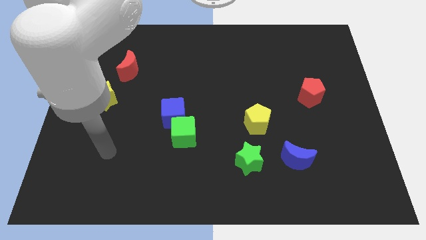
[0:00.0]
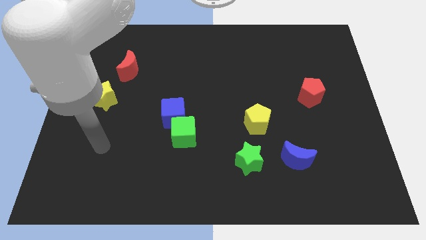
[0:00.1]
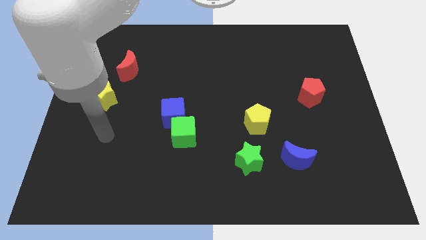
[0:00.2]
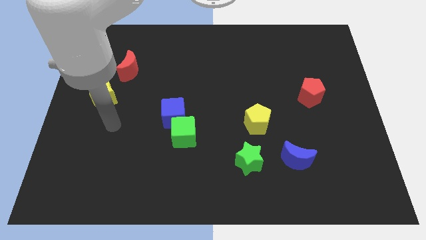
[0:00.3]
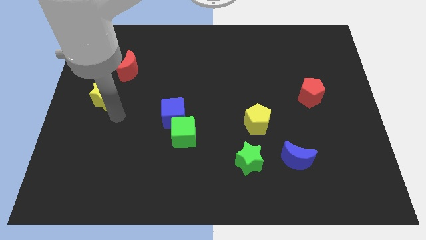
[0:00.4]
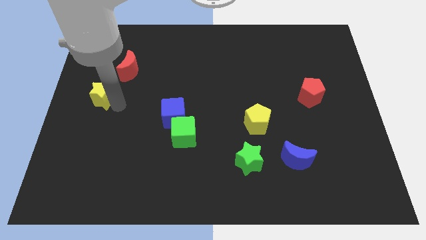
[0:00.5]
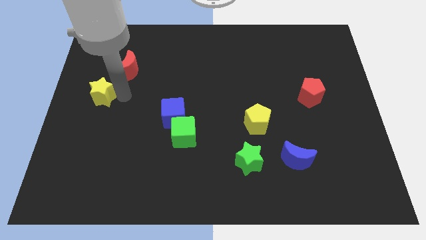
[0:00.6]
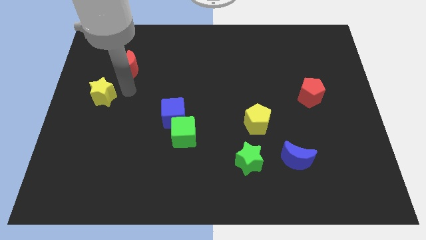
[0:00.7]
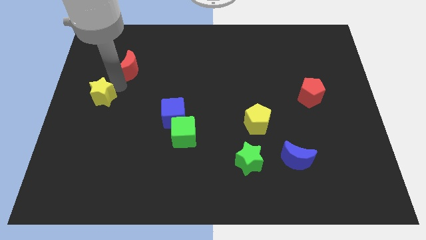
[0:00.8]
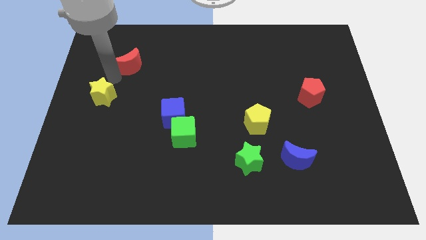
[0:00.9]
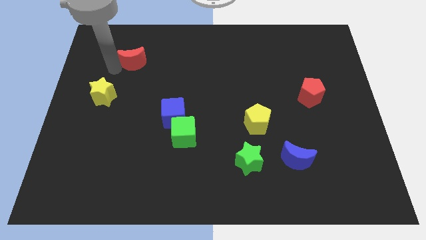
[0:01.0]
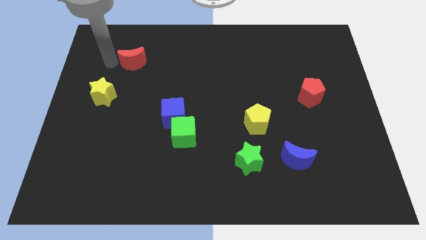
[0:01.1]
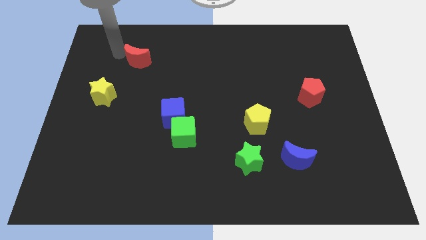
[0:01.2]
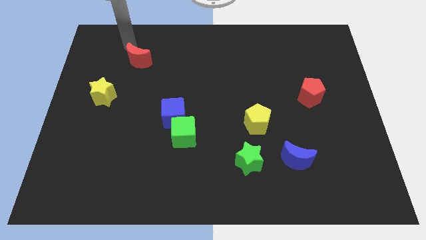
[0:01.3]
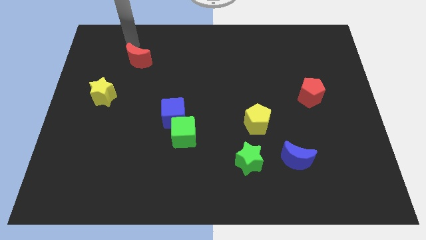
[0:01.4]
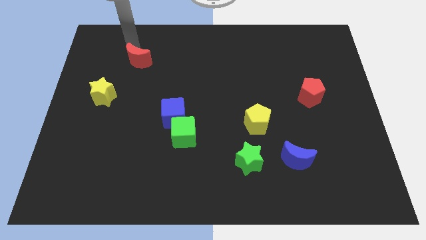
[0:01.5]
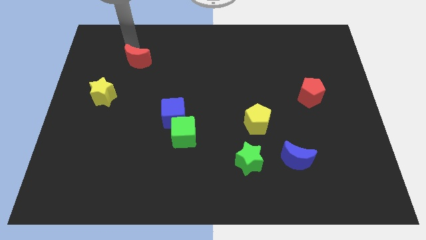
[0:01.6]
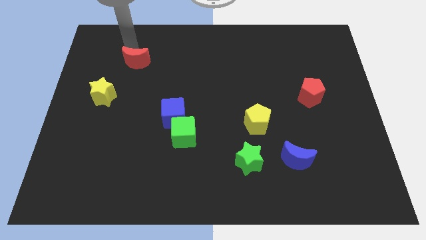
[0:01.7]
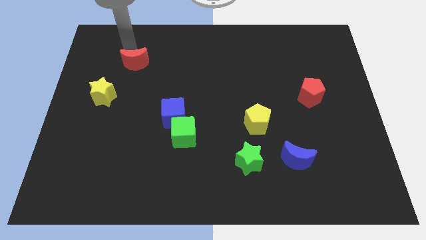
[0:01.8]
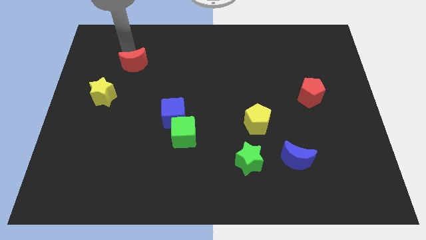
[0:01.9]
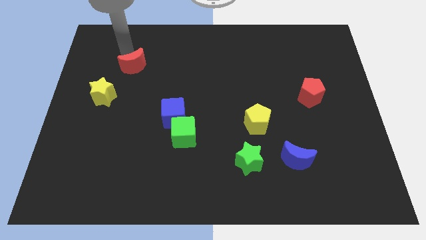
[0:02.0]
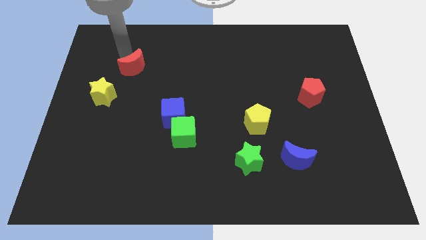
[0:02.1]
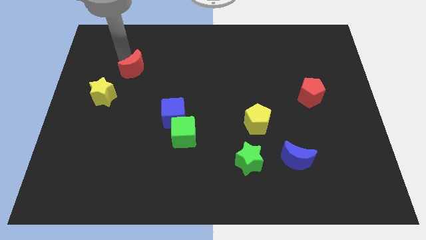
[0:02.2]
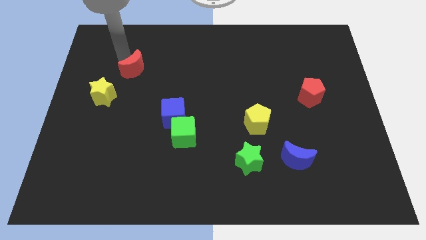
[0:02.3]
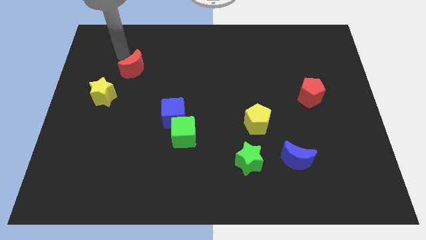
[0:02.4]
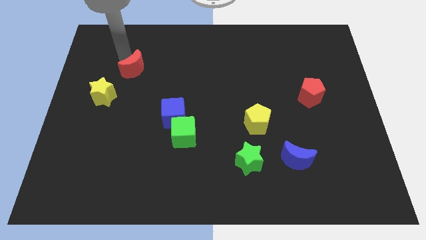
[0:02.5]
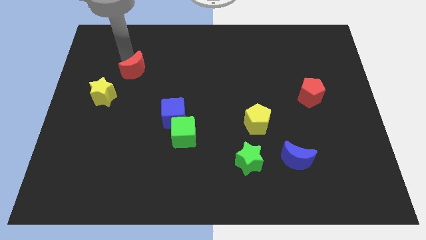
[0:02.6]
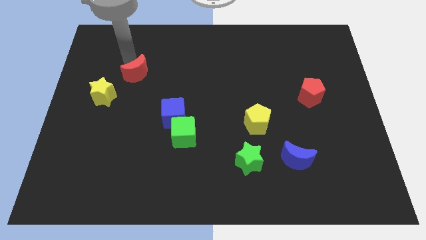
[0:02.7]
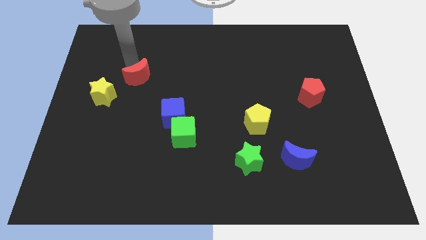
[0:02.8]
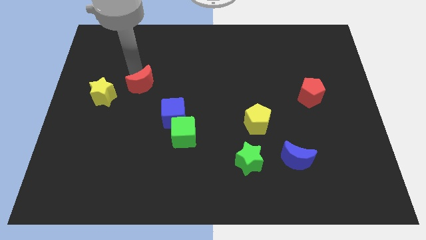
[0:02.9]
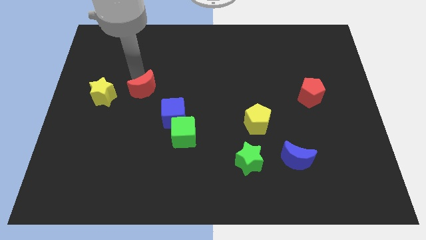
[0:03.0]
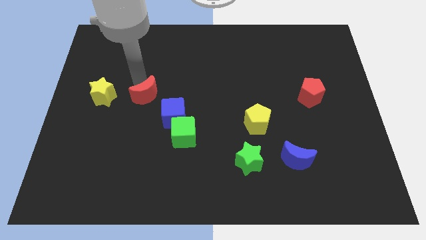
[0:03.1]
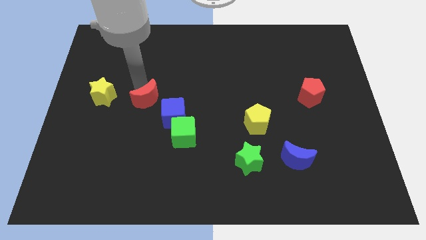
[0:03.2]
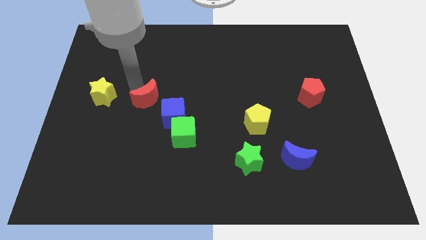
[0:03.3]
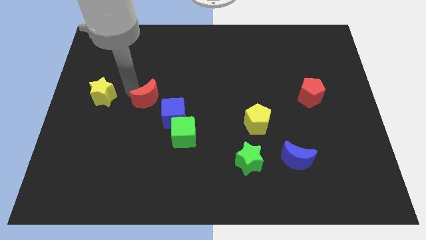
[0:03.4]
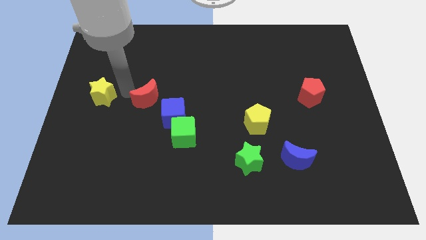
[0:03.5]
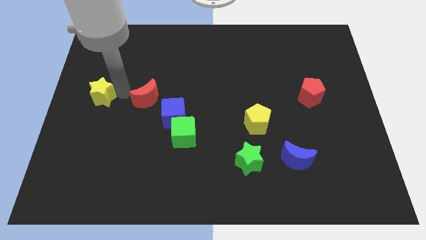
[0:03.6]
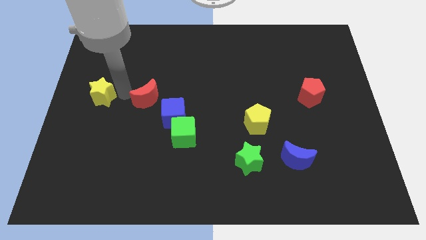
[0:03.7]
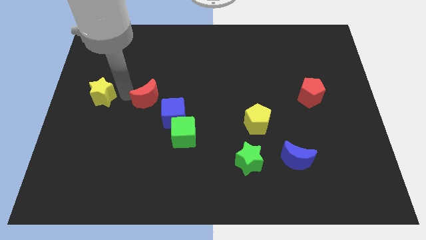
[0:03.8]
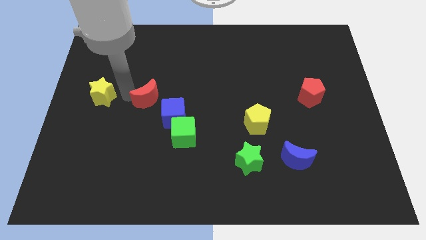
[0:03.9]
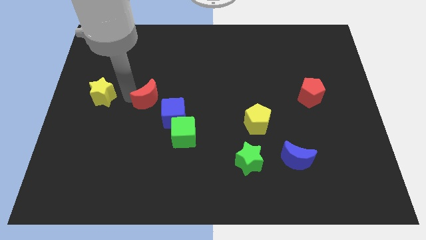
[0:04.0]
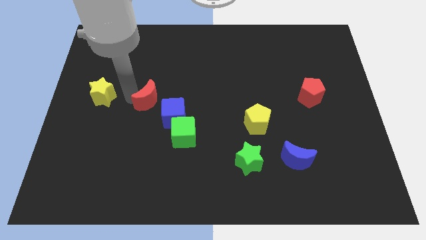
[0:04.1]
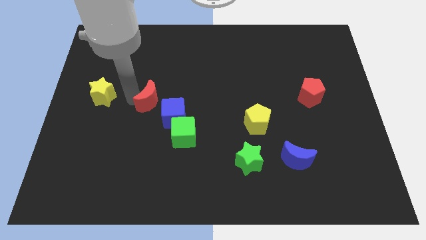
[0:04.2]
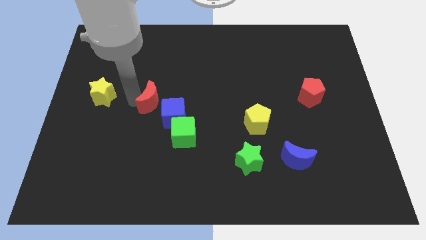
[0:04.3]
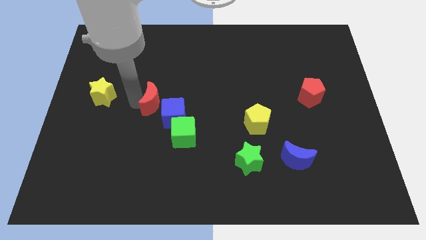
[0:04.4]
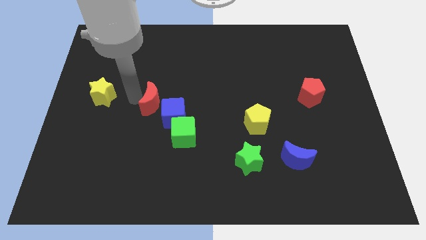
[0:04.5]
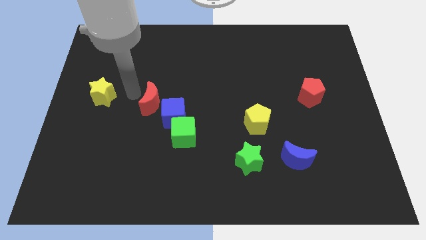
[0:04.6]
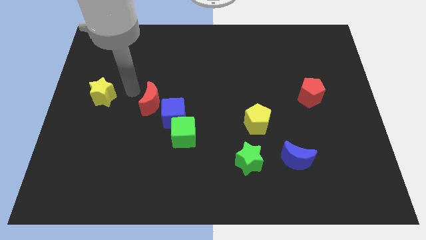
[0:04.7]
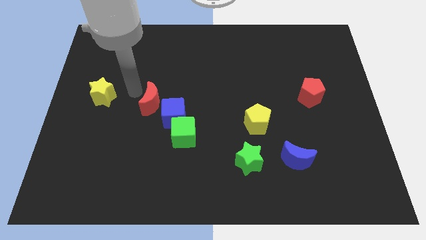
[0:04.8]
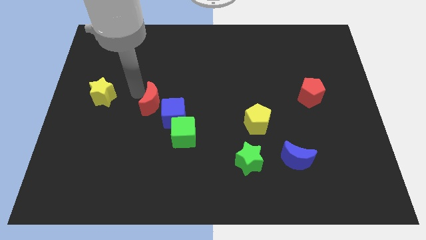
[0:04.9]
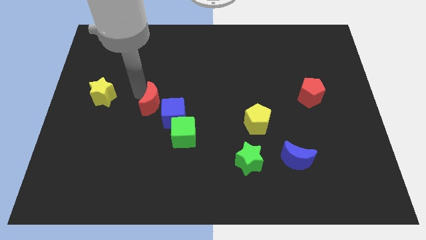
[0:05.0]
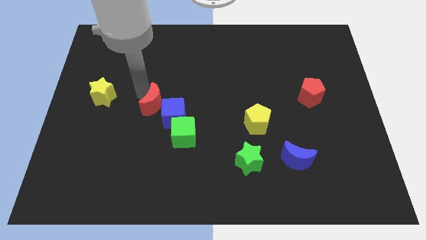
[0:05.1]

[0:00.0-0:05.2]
put the red moon towards the blue cube

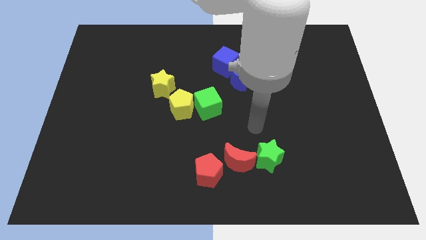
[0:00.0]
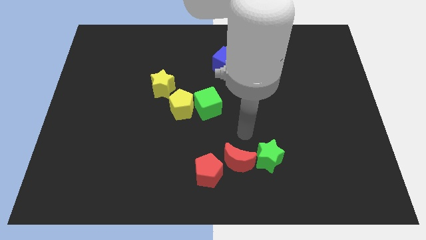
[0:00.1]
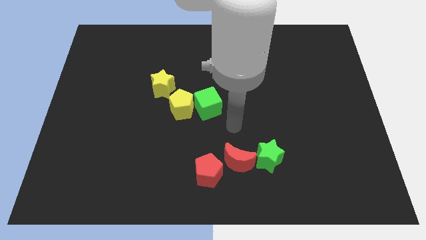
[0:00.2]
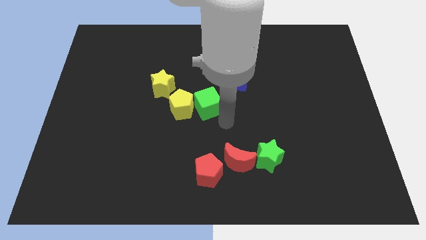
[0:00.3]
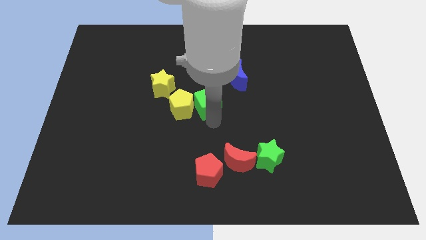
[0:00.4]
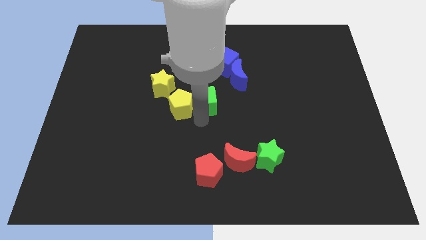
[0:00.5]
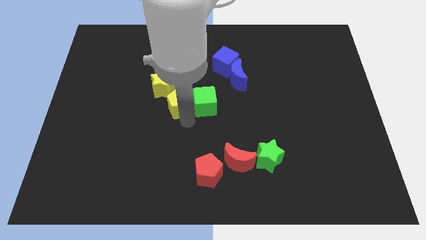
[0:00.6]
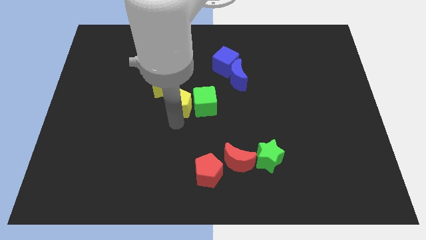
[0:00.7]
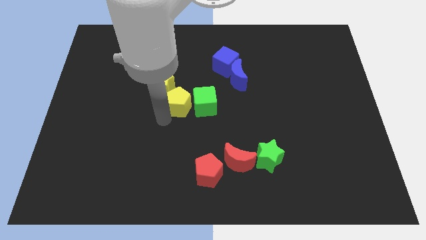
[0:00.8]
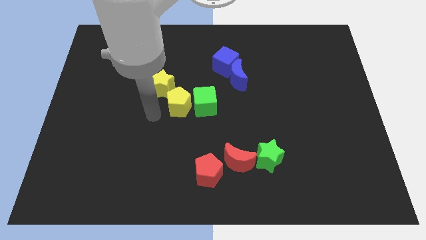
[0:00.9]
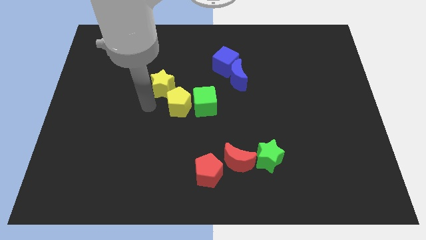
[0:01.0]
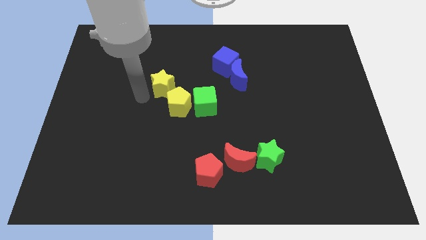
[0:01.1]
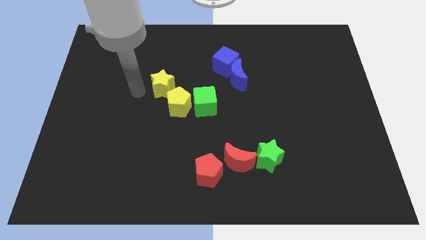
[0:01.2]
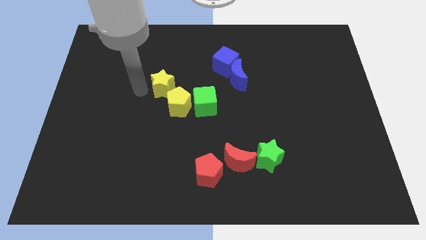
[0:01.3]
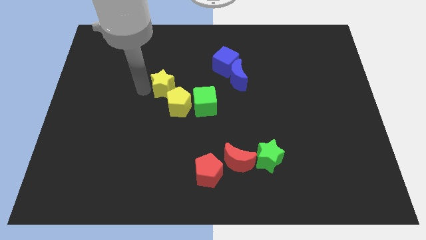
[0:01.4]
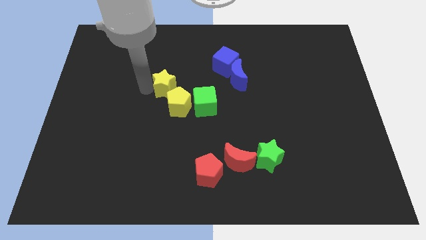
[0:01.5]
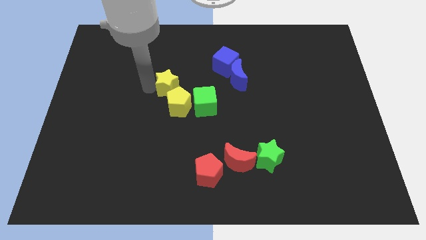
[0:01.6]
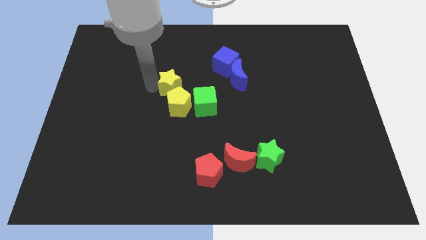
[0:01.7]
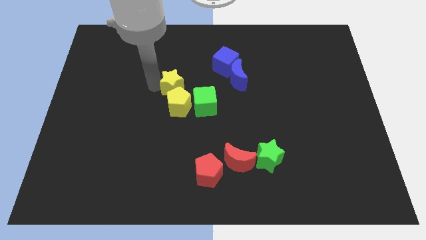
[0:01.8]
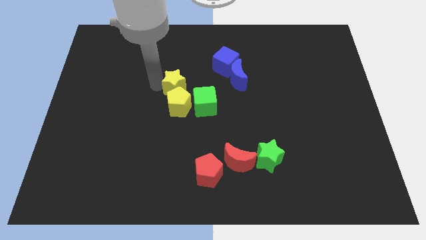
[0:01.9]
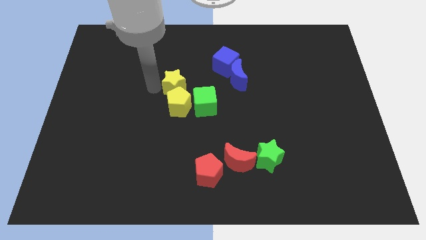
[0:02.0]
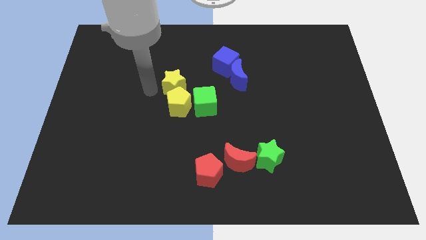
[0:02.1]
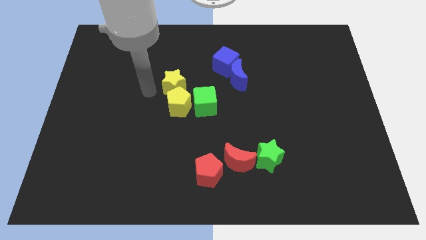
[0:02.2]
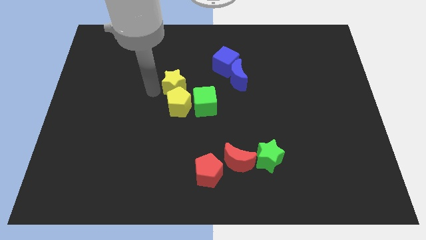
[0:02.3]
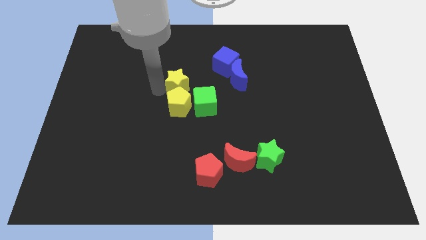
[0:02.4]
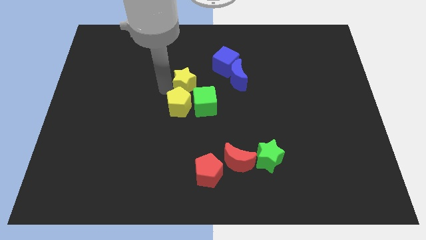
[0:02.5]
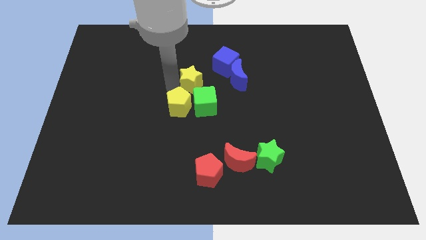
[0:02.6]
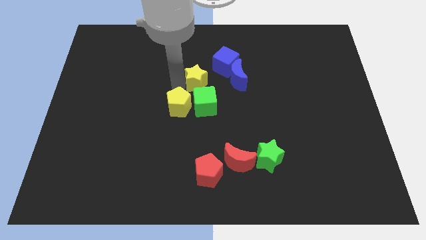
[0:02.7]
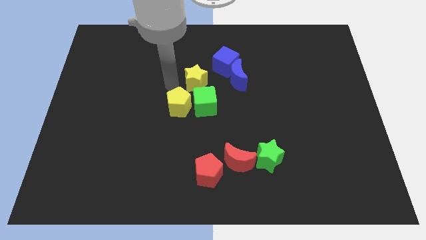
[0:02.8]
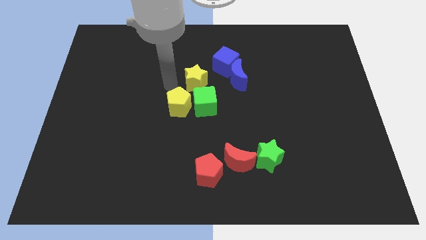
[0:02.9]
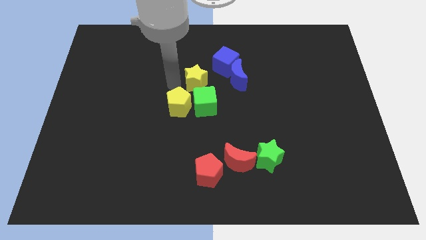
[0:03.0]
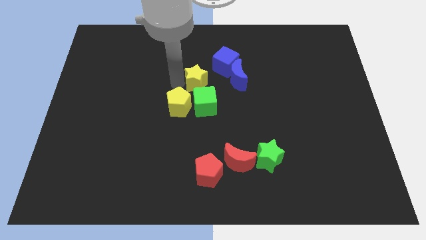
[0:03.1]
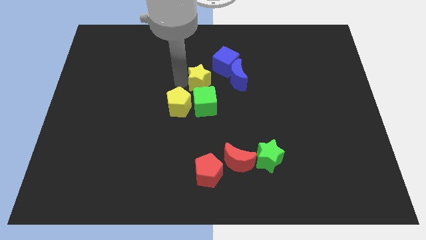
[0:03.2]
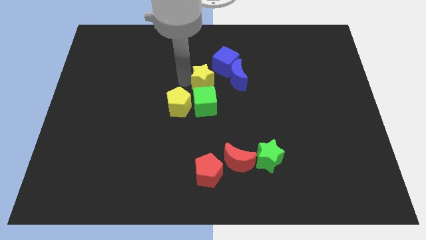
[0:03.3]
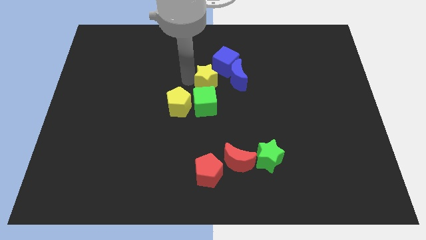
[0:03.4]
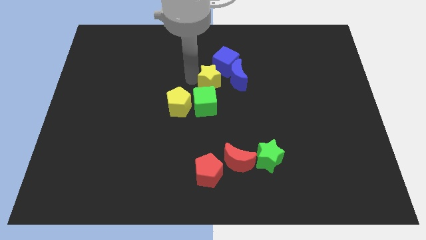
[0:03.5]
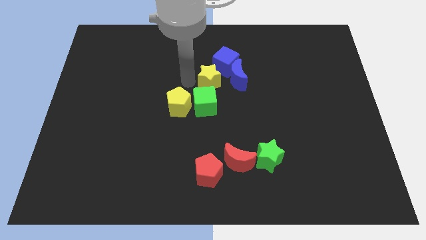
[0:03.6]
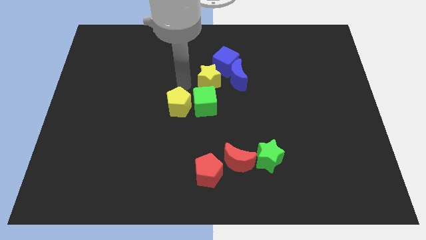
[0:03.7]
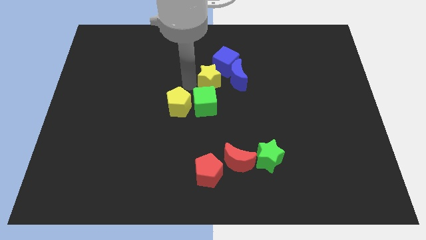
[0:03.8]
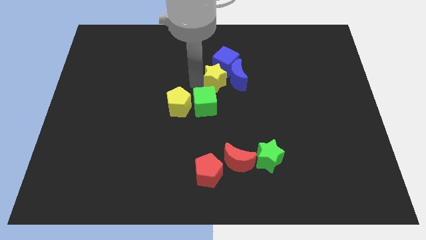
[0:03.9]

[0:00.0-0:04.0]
push the yellow star to the blue moon
